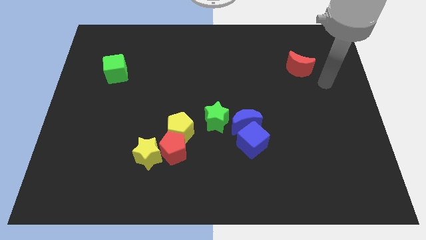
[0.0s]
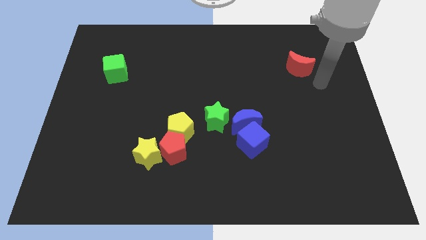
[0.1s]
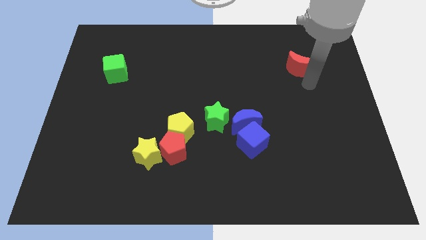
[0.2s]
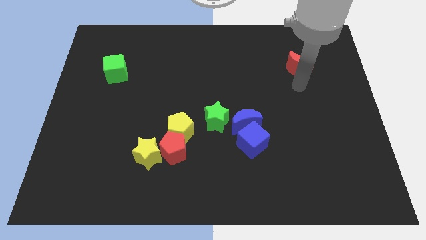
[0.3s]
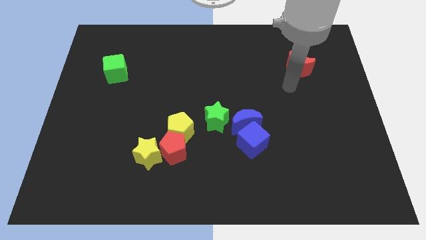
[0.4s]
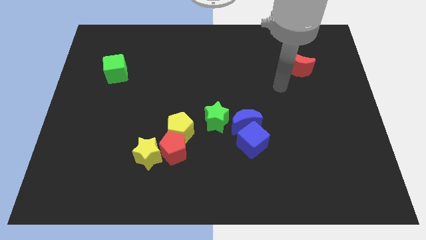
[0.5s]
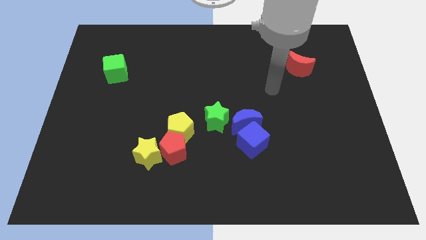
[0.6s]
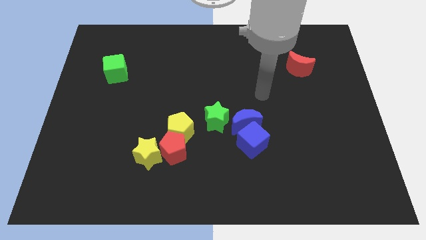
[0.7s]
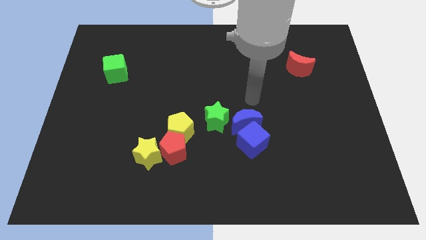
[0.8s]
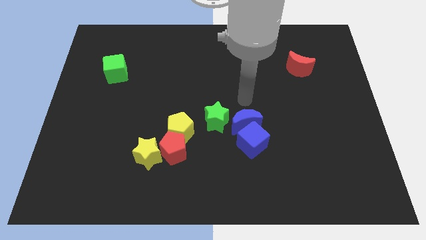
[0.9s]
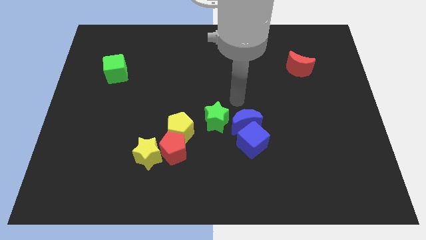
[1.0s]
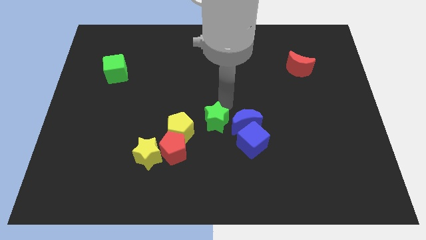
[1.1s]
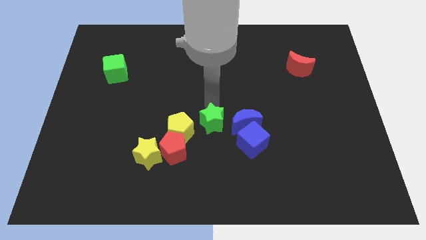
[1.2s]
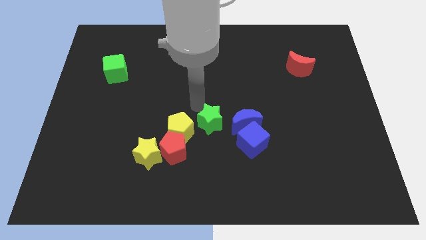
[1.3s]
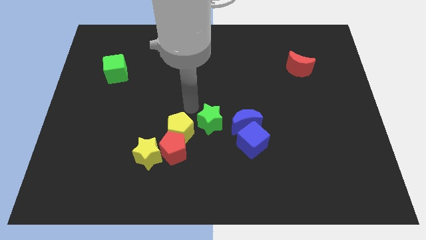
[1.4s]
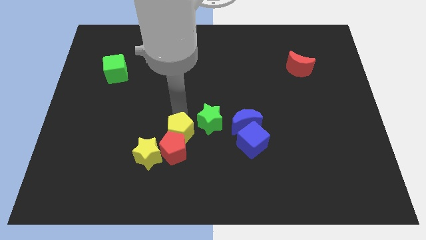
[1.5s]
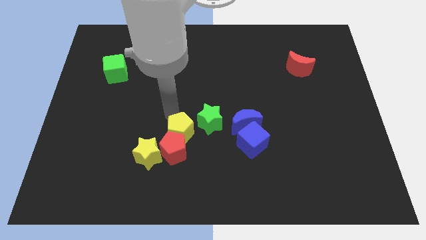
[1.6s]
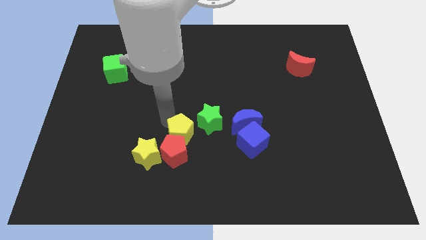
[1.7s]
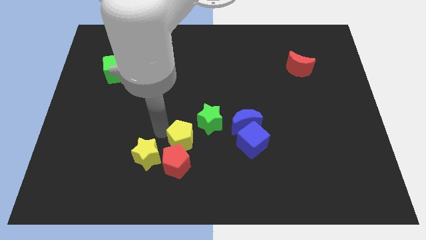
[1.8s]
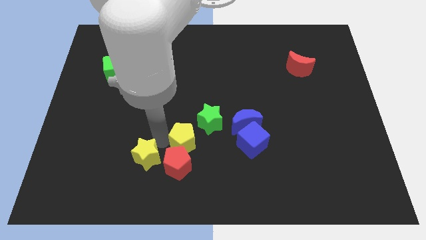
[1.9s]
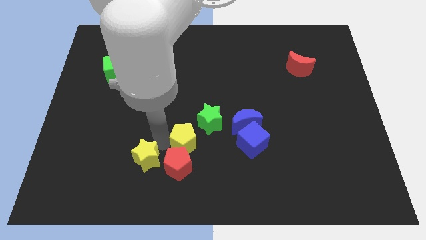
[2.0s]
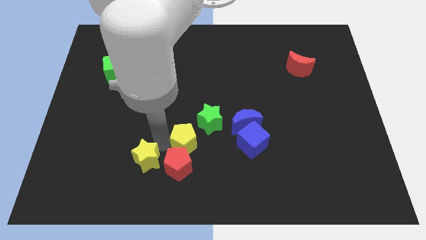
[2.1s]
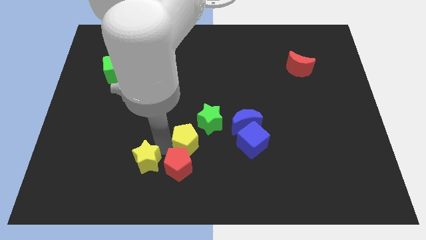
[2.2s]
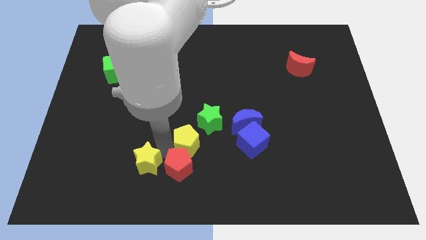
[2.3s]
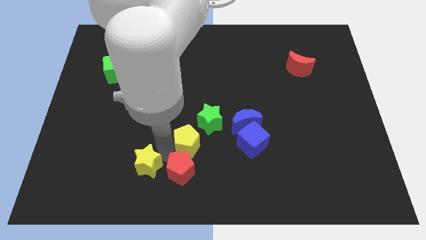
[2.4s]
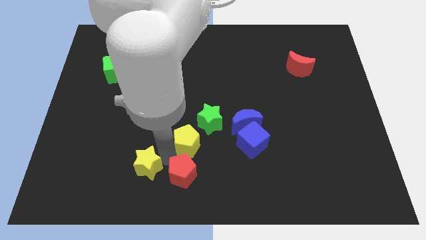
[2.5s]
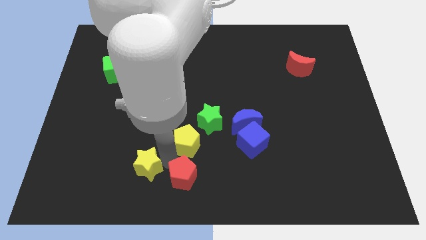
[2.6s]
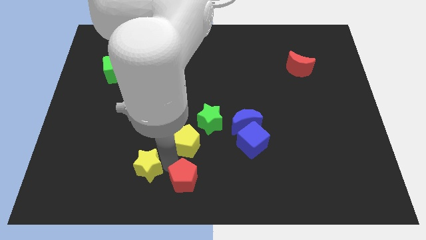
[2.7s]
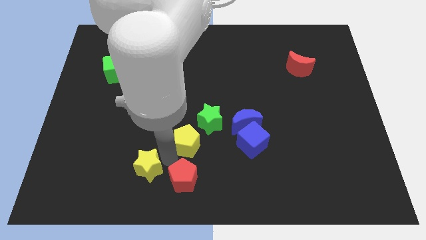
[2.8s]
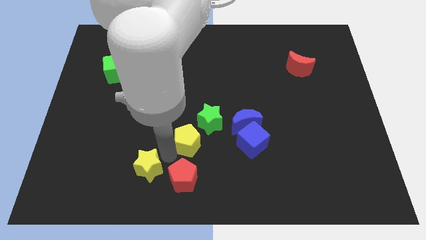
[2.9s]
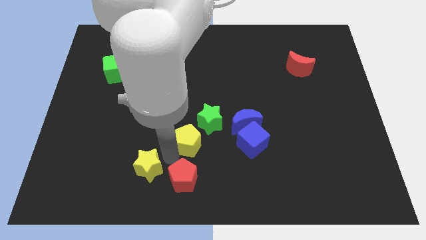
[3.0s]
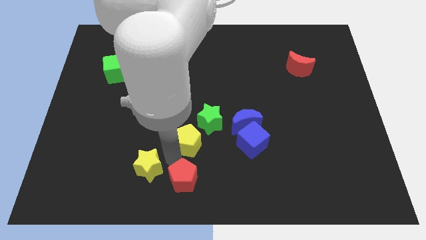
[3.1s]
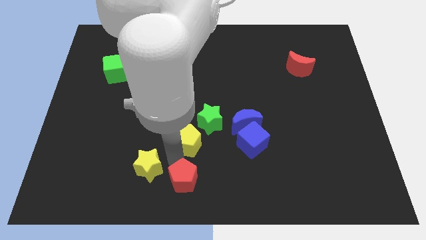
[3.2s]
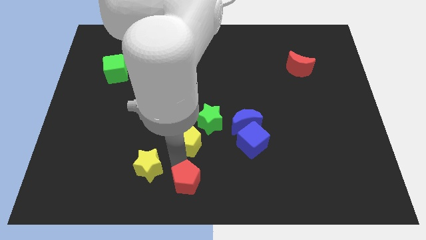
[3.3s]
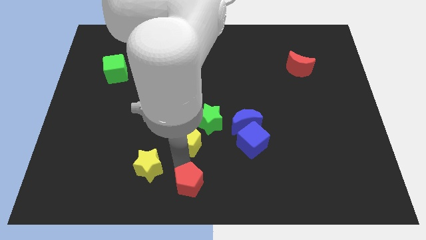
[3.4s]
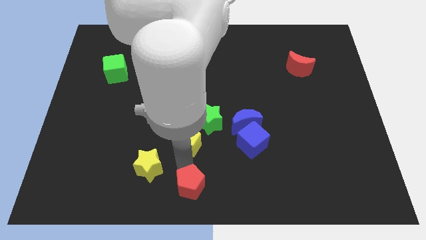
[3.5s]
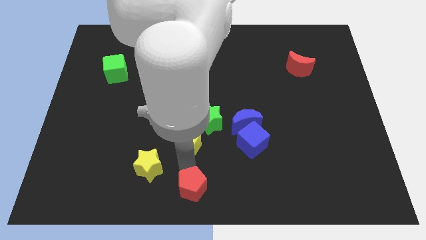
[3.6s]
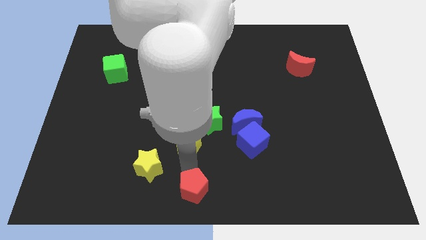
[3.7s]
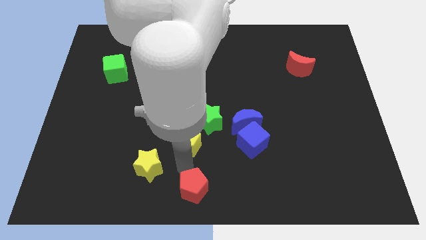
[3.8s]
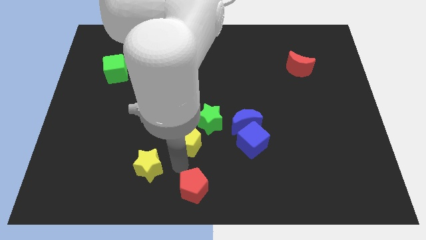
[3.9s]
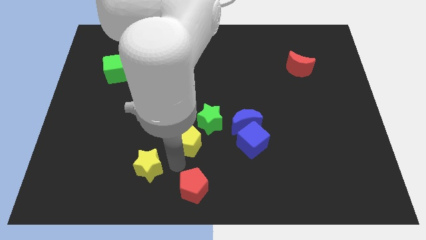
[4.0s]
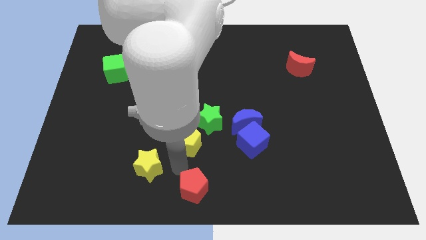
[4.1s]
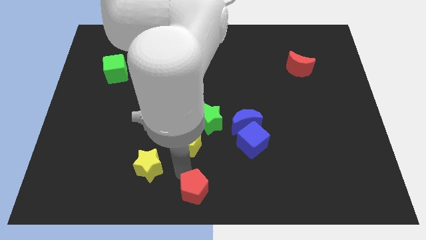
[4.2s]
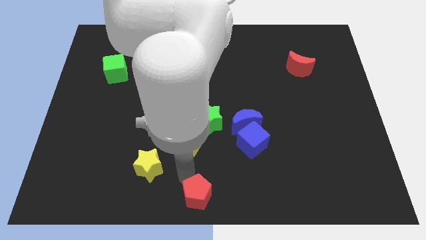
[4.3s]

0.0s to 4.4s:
pull the red pentagon apart from the yellow pentagon and yellow star

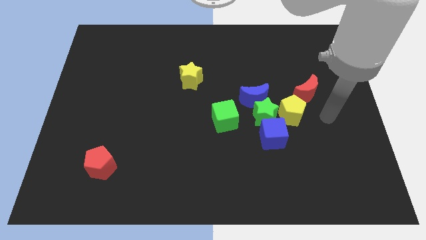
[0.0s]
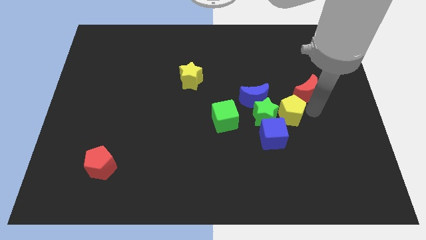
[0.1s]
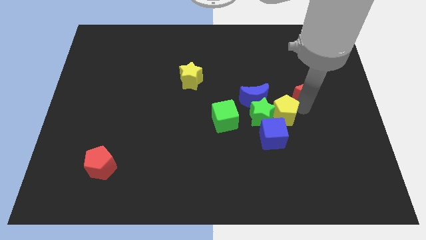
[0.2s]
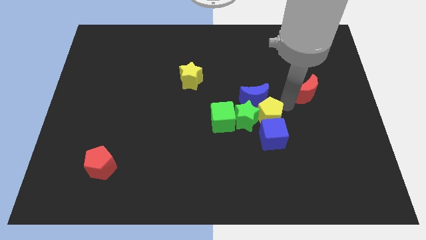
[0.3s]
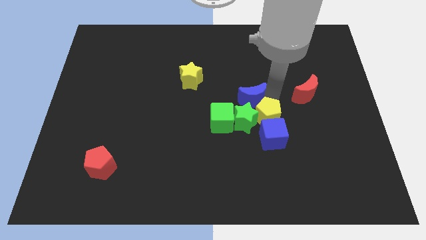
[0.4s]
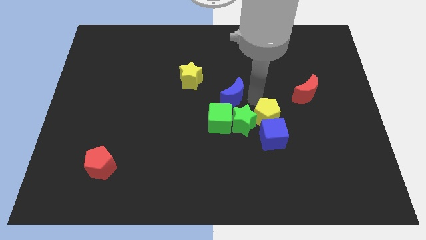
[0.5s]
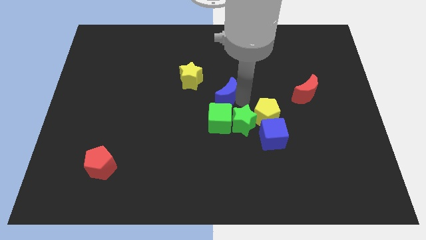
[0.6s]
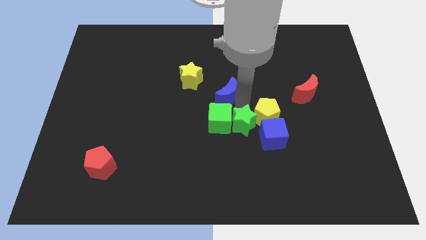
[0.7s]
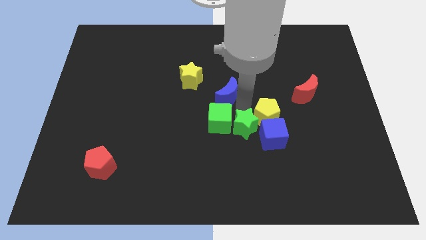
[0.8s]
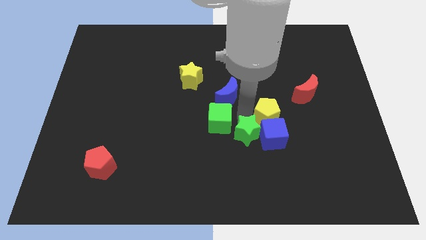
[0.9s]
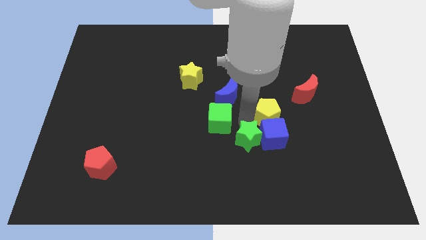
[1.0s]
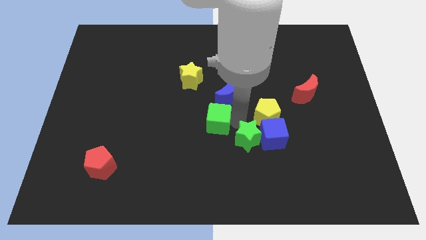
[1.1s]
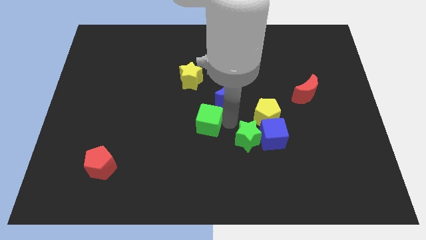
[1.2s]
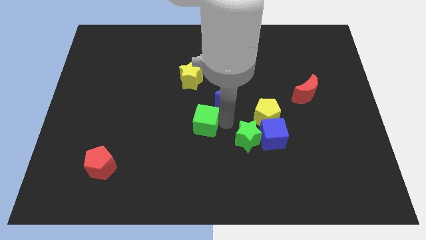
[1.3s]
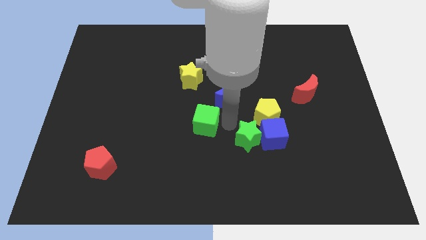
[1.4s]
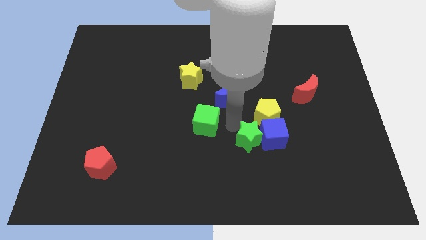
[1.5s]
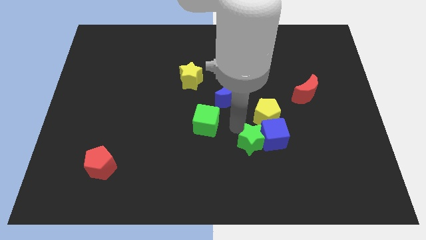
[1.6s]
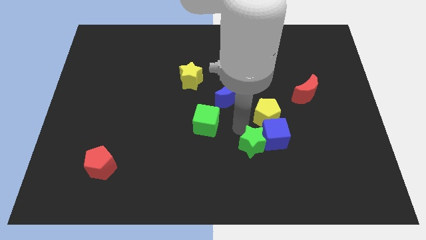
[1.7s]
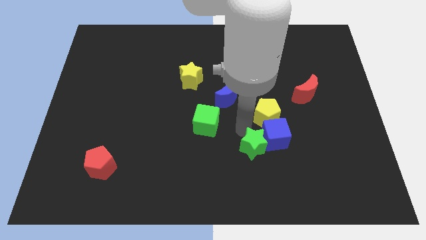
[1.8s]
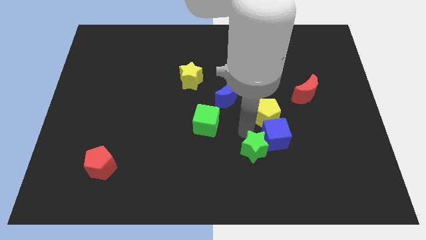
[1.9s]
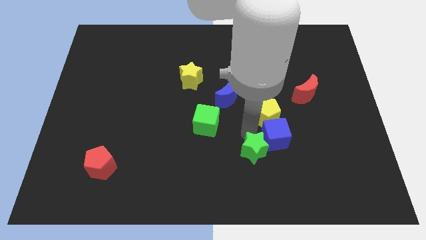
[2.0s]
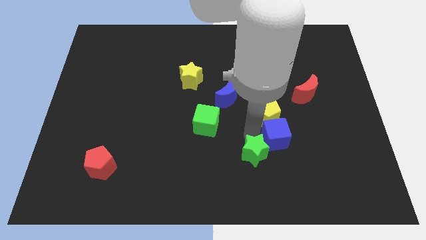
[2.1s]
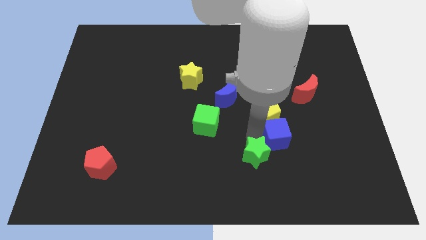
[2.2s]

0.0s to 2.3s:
separate the green star from the group of blocks

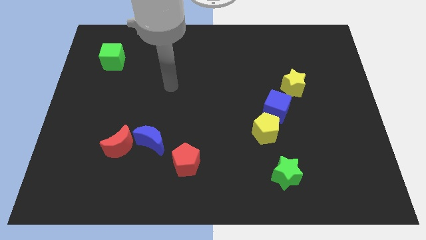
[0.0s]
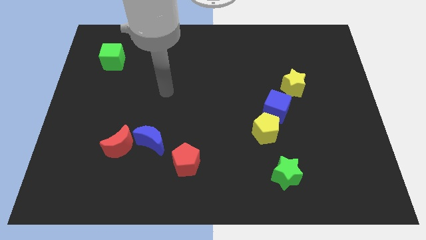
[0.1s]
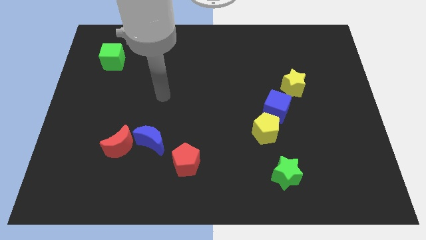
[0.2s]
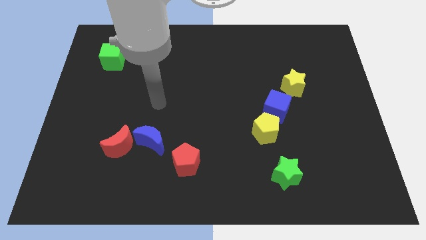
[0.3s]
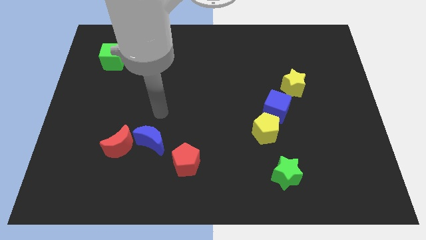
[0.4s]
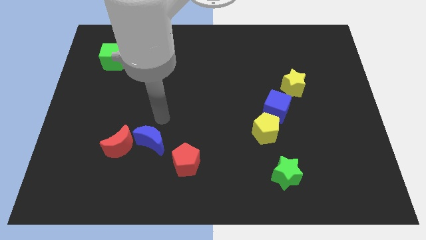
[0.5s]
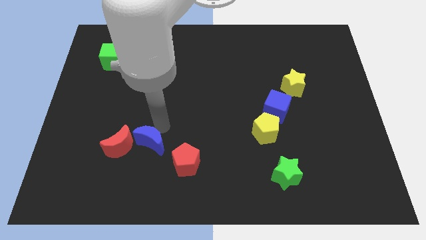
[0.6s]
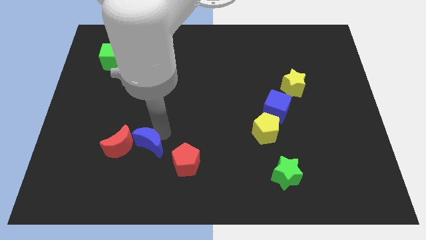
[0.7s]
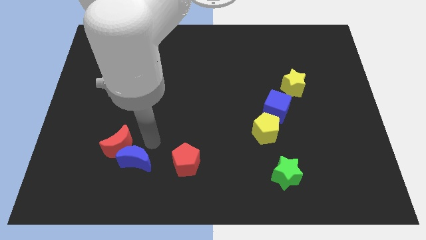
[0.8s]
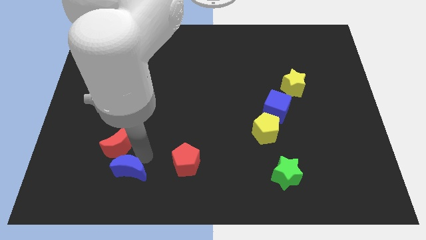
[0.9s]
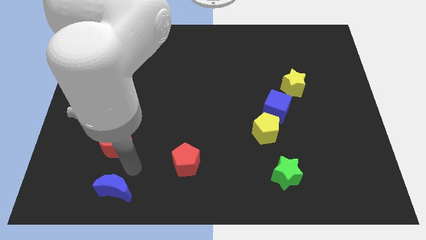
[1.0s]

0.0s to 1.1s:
move the red moon away from the blue moon

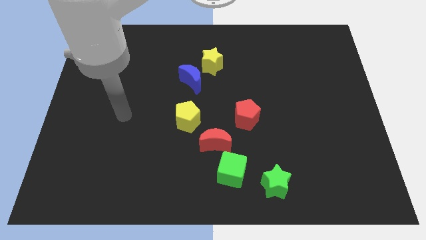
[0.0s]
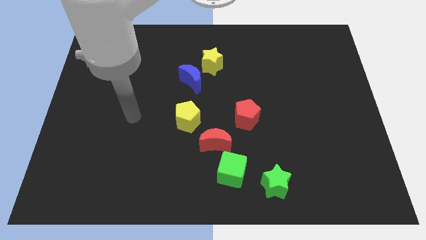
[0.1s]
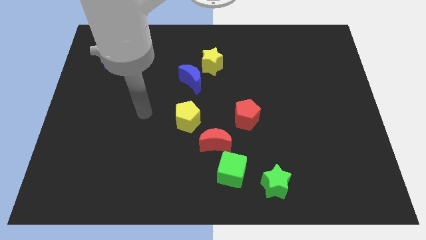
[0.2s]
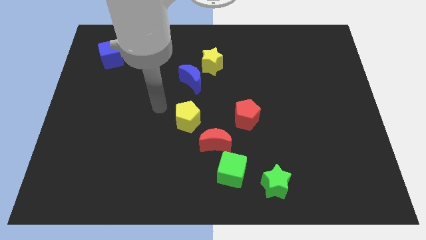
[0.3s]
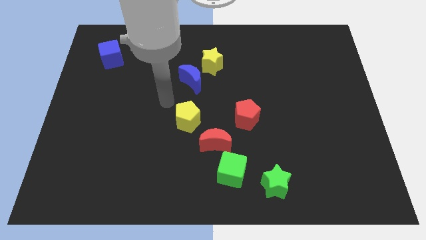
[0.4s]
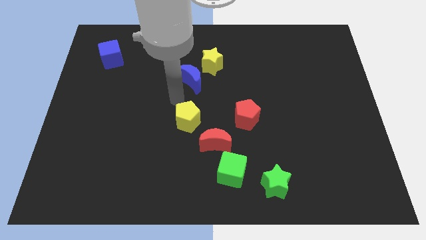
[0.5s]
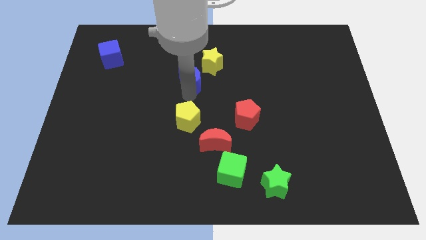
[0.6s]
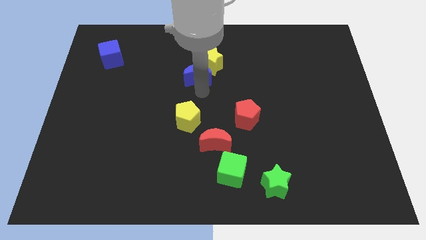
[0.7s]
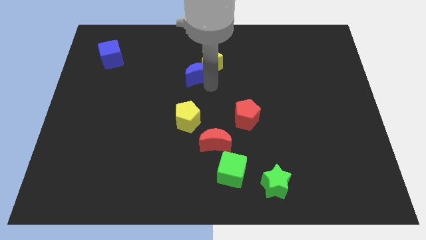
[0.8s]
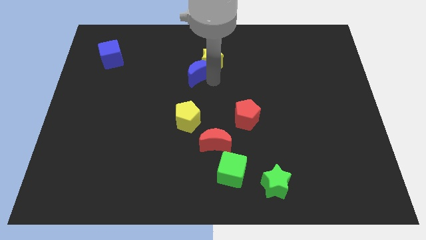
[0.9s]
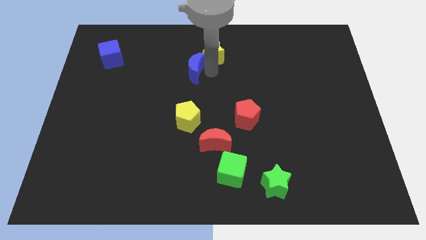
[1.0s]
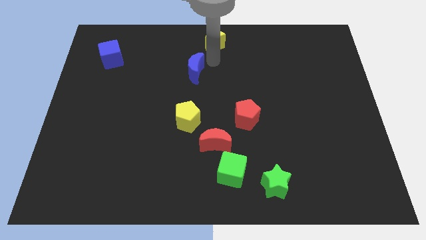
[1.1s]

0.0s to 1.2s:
pull the blue moon apart from the yellow star

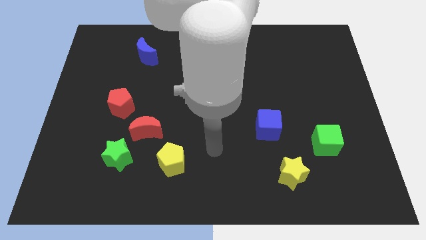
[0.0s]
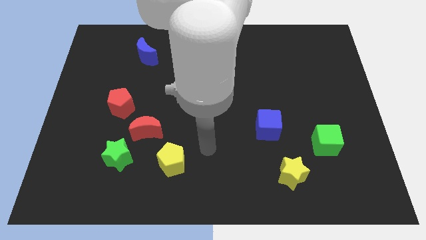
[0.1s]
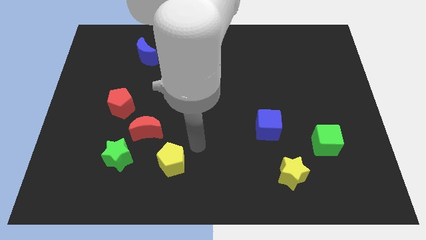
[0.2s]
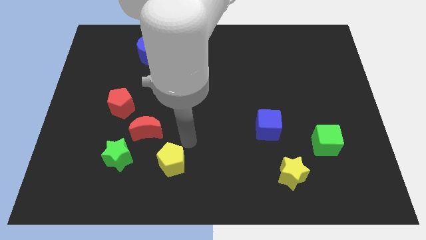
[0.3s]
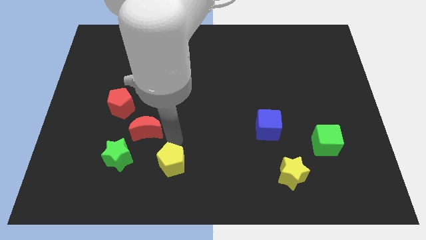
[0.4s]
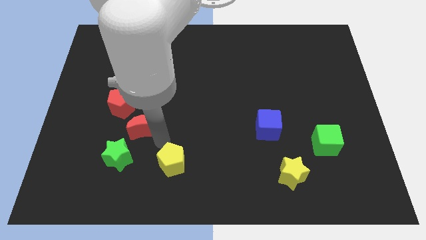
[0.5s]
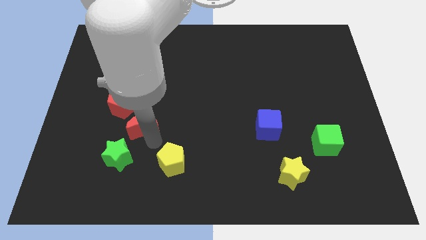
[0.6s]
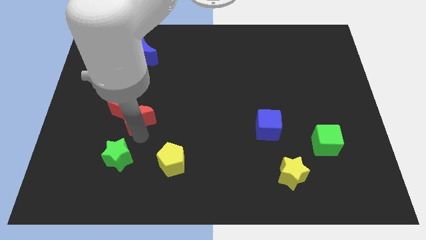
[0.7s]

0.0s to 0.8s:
move the green star away from the red moon
